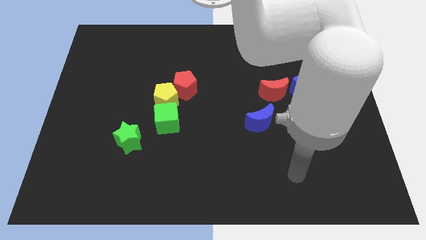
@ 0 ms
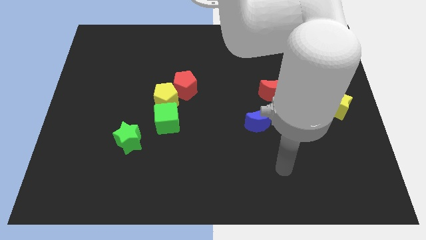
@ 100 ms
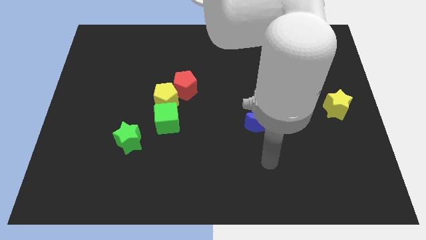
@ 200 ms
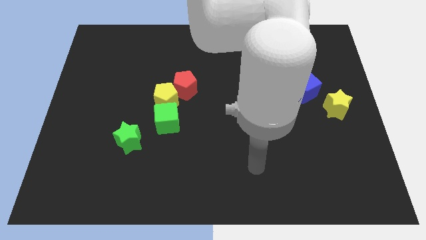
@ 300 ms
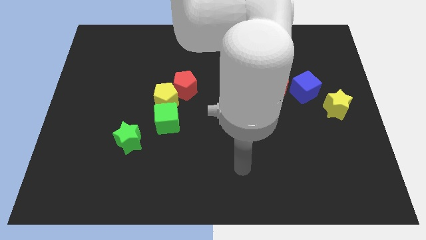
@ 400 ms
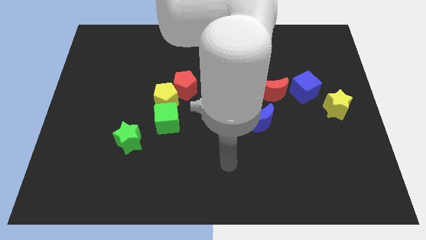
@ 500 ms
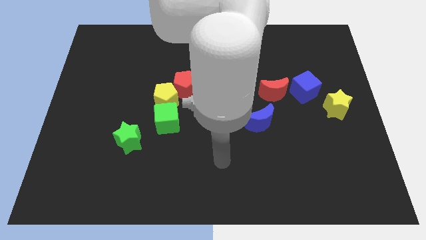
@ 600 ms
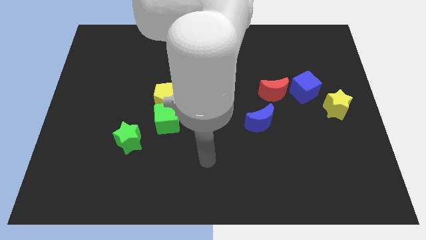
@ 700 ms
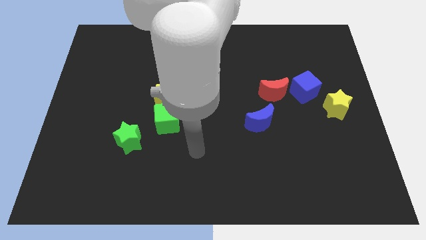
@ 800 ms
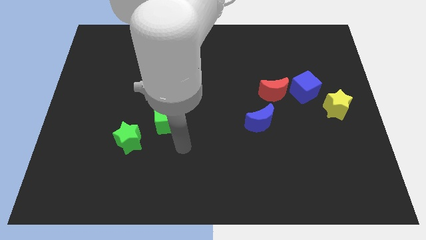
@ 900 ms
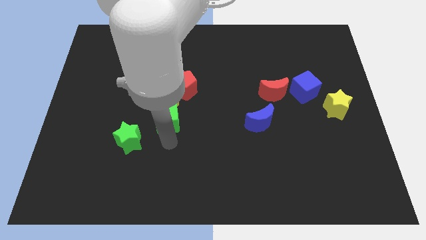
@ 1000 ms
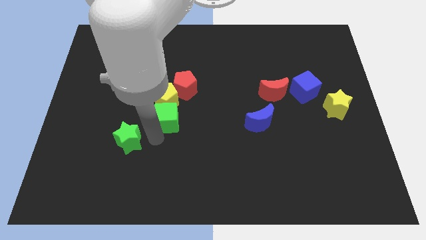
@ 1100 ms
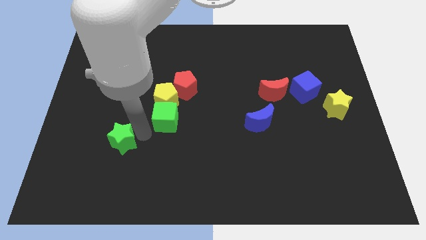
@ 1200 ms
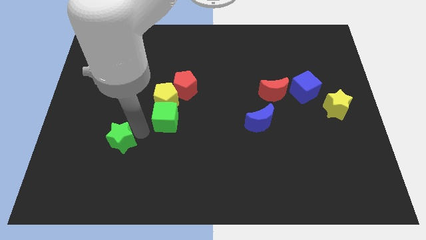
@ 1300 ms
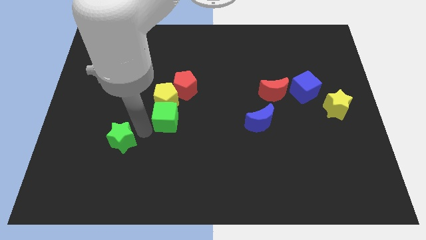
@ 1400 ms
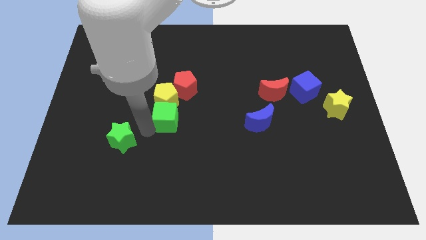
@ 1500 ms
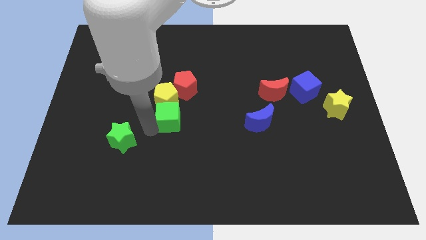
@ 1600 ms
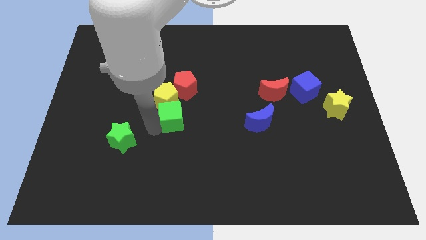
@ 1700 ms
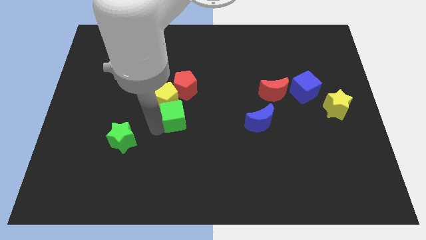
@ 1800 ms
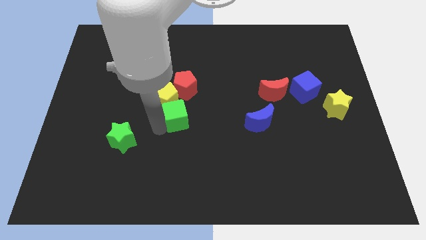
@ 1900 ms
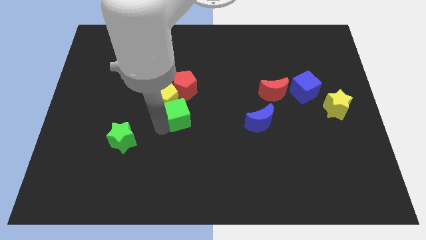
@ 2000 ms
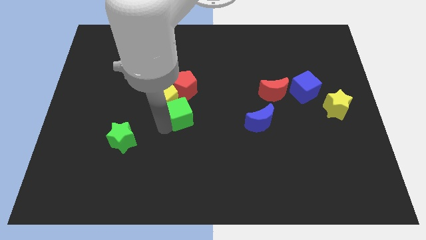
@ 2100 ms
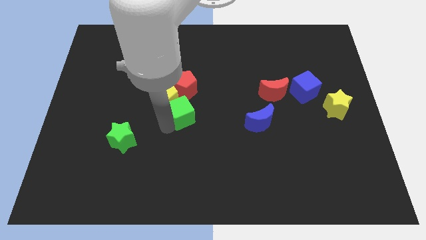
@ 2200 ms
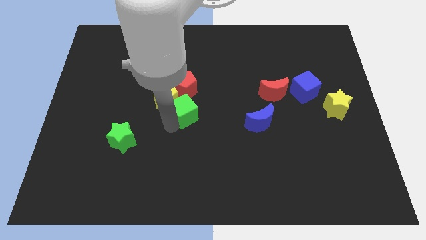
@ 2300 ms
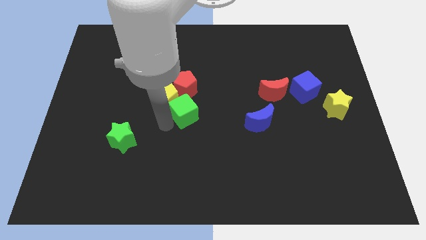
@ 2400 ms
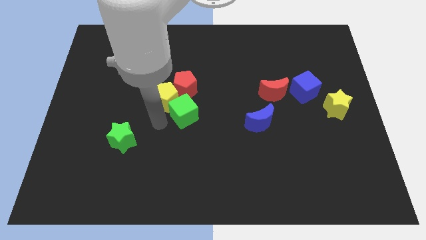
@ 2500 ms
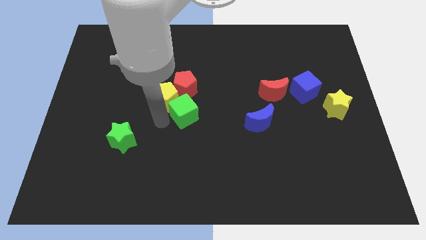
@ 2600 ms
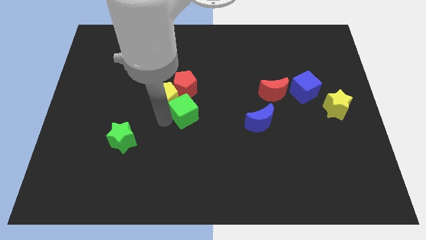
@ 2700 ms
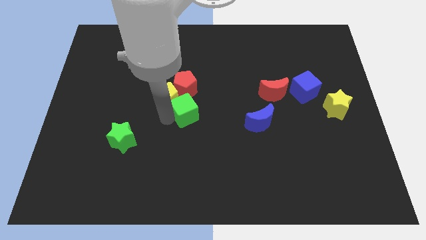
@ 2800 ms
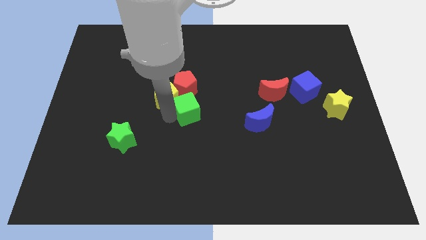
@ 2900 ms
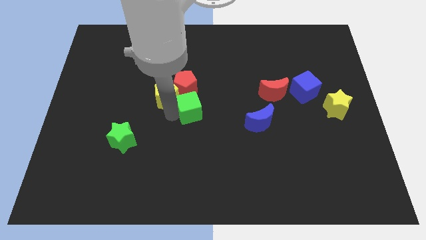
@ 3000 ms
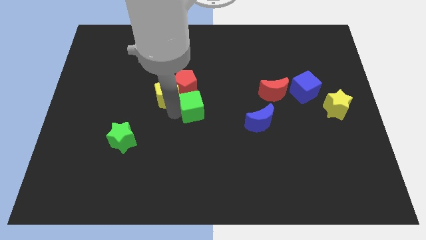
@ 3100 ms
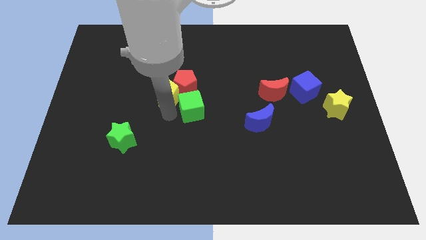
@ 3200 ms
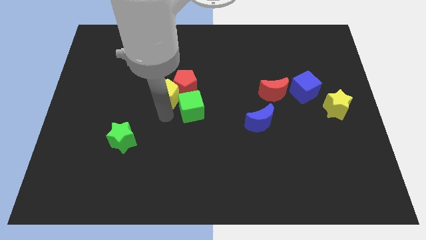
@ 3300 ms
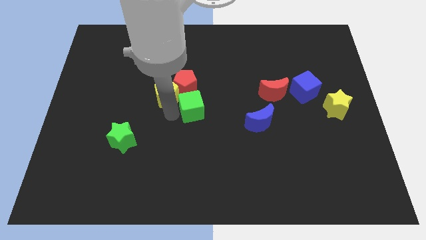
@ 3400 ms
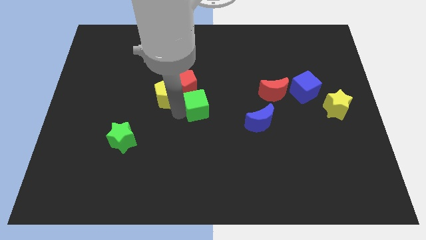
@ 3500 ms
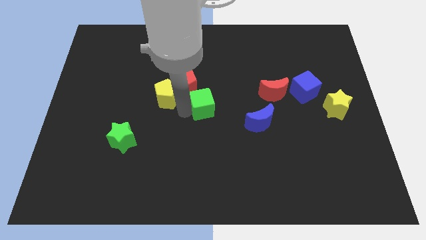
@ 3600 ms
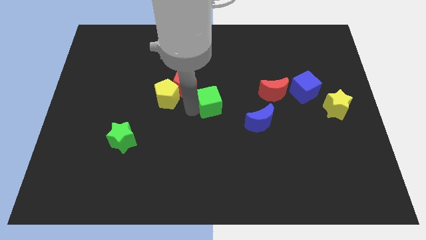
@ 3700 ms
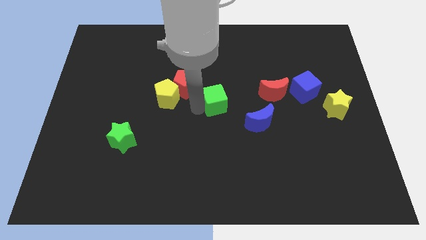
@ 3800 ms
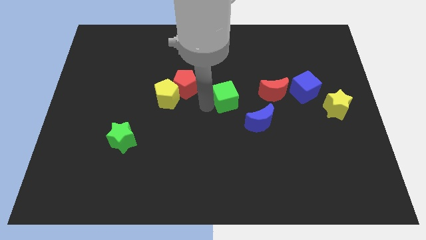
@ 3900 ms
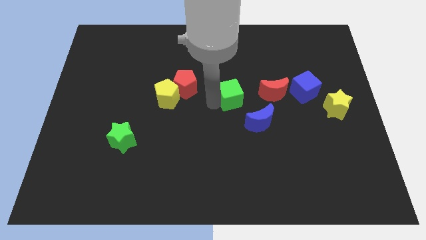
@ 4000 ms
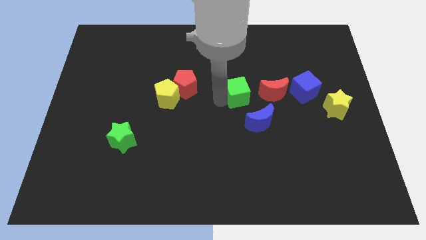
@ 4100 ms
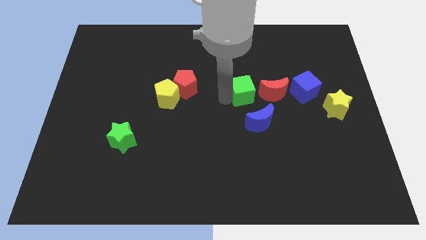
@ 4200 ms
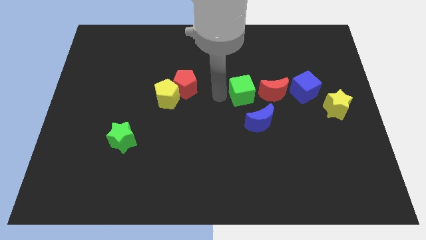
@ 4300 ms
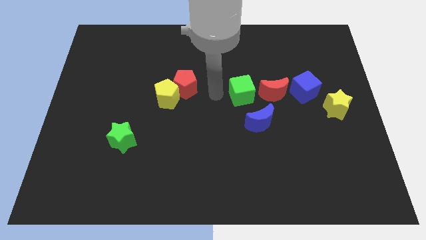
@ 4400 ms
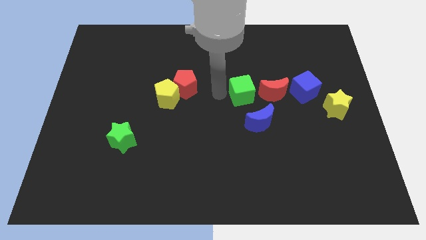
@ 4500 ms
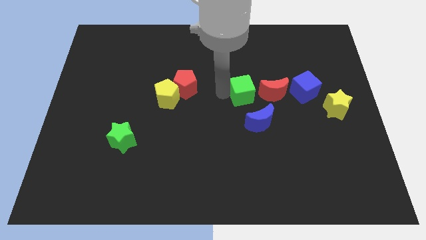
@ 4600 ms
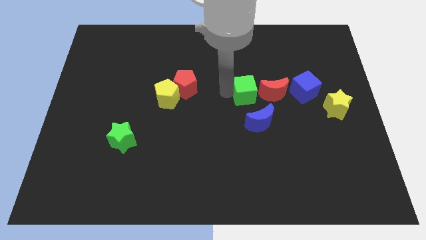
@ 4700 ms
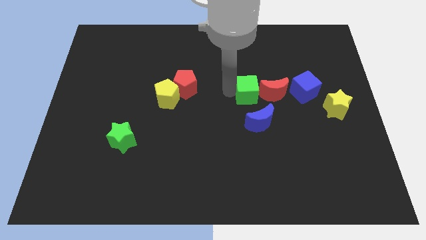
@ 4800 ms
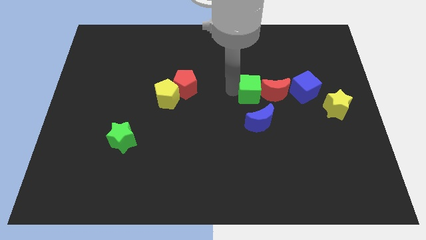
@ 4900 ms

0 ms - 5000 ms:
slide the green cube to the red moon

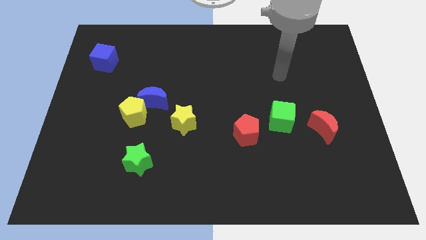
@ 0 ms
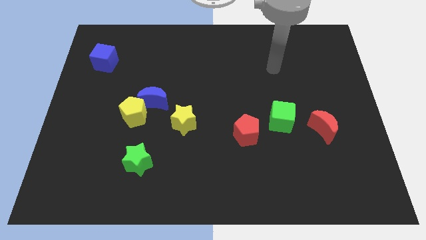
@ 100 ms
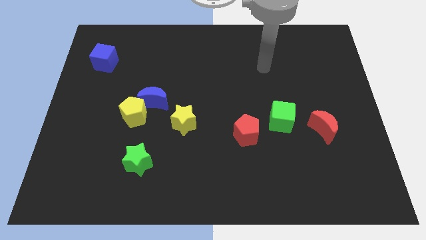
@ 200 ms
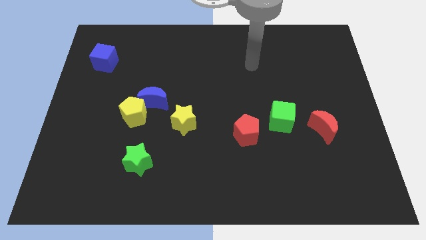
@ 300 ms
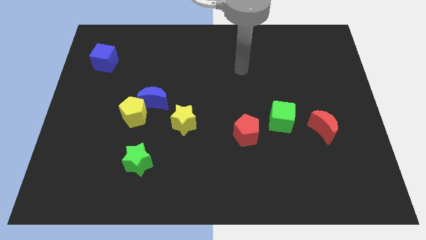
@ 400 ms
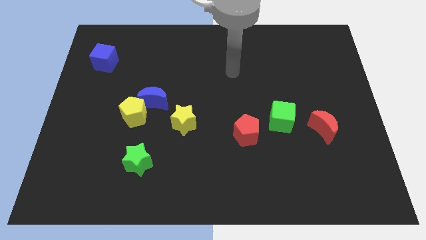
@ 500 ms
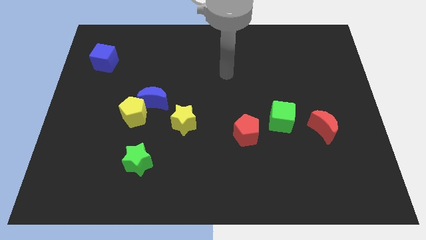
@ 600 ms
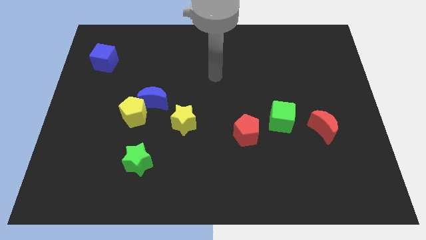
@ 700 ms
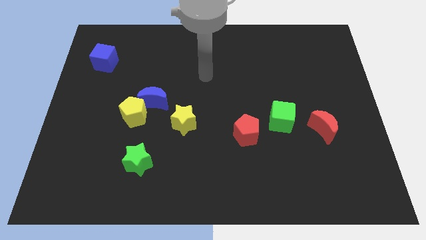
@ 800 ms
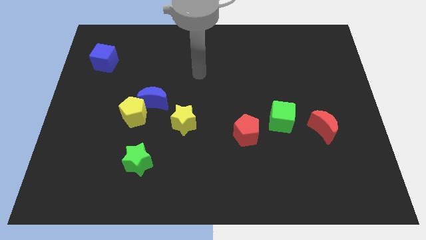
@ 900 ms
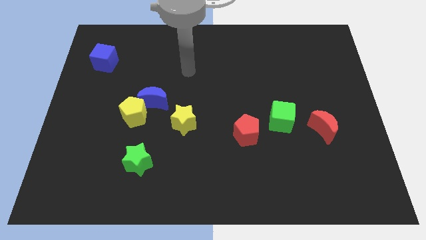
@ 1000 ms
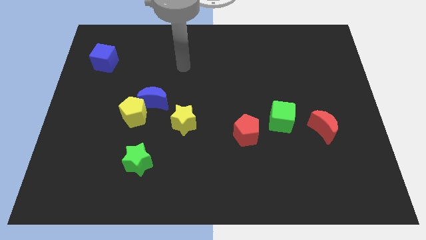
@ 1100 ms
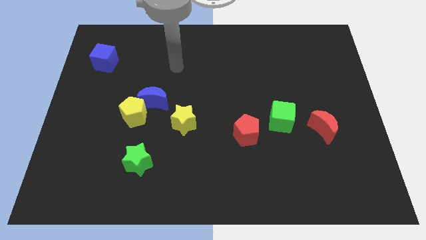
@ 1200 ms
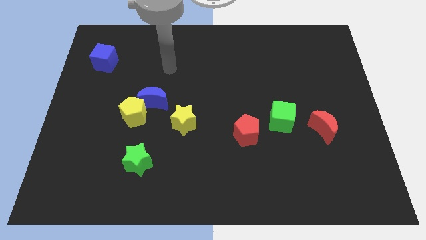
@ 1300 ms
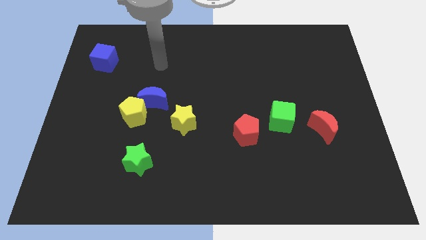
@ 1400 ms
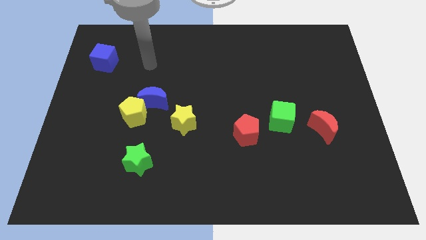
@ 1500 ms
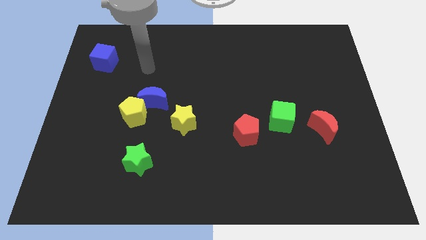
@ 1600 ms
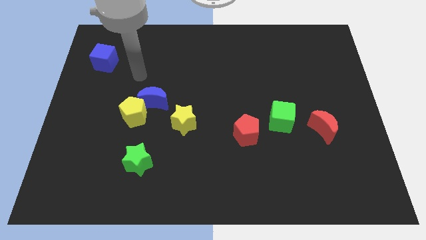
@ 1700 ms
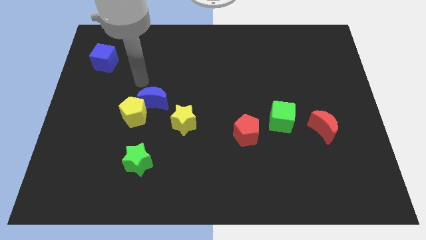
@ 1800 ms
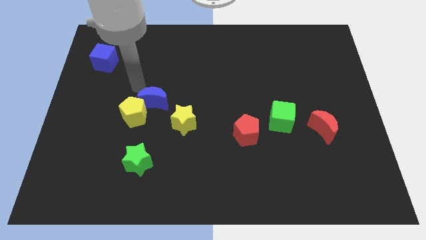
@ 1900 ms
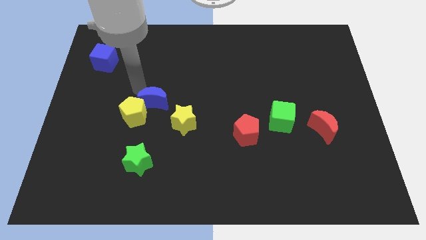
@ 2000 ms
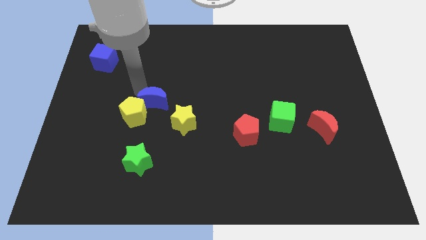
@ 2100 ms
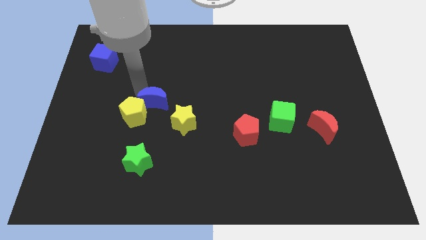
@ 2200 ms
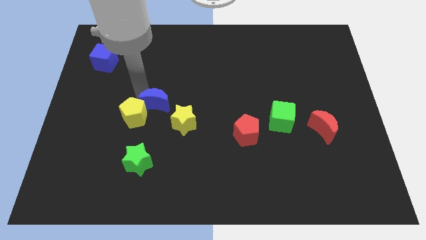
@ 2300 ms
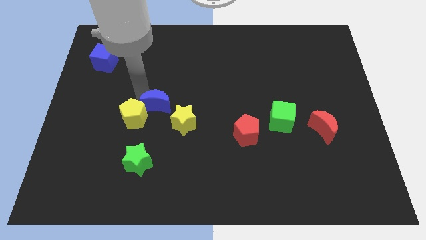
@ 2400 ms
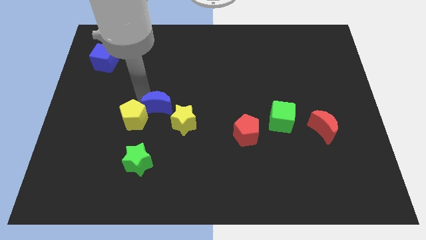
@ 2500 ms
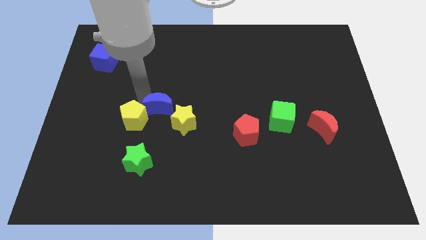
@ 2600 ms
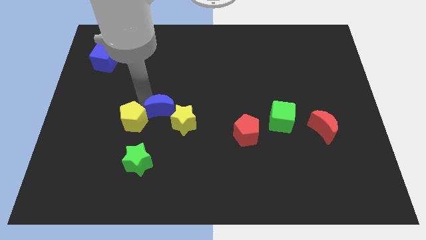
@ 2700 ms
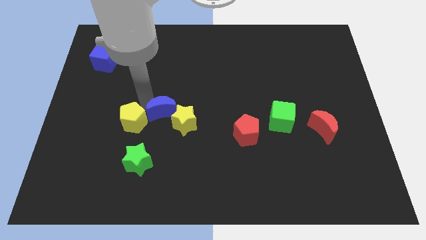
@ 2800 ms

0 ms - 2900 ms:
move the blue moon next to the yellow star
